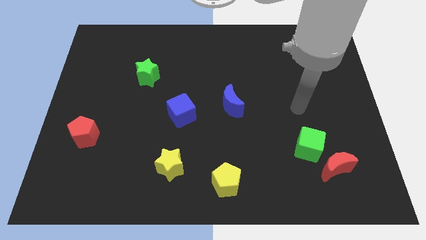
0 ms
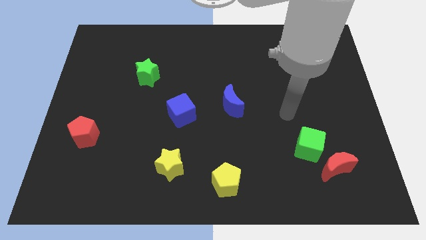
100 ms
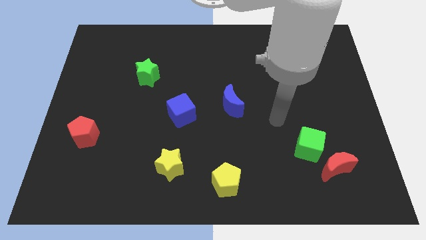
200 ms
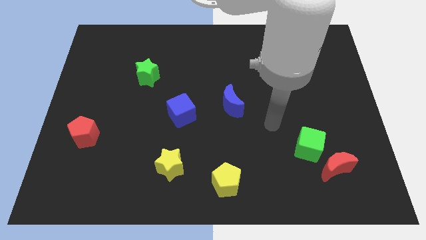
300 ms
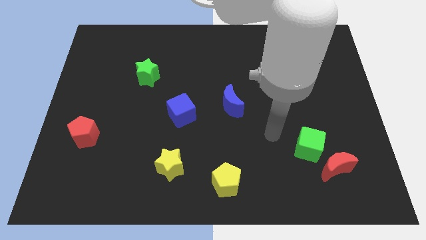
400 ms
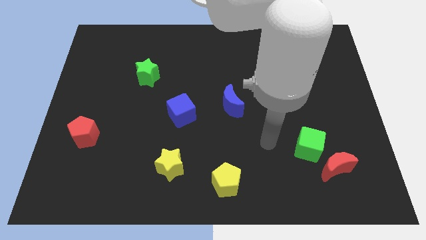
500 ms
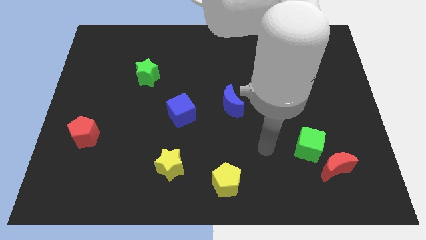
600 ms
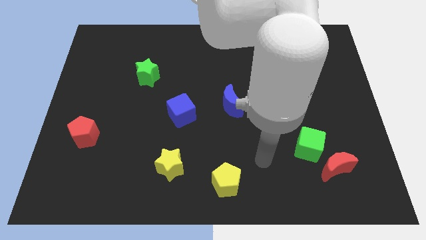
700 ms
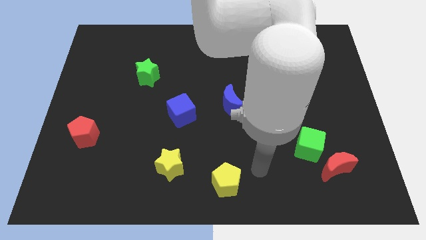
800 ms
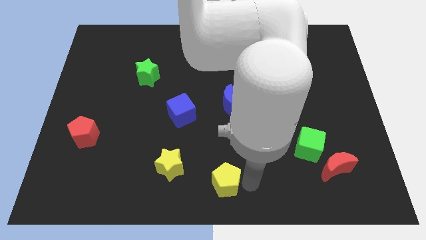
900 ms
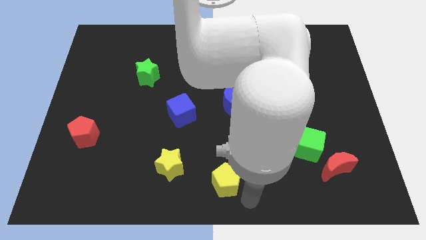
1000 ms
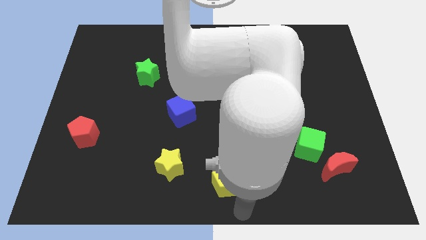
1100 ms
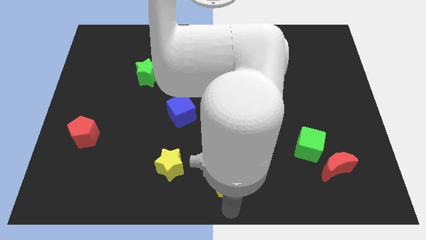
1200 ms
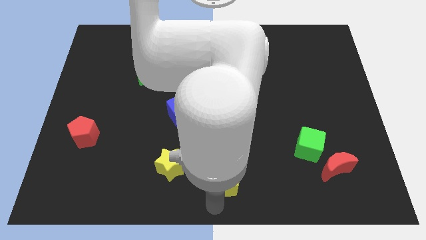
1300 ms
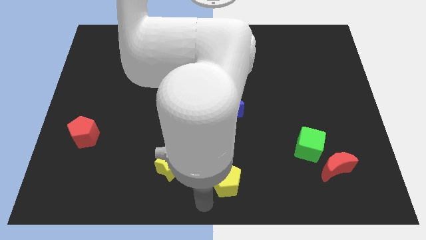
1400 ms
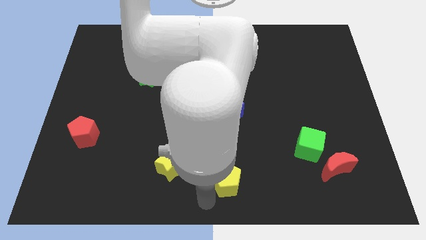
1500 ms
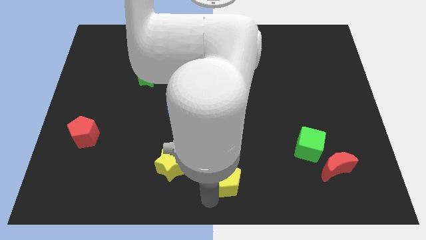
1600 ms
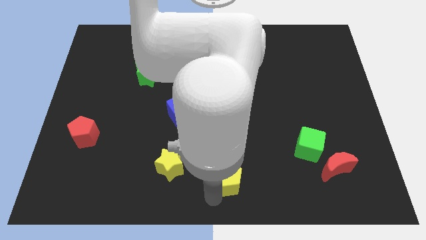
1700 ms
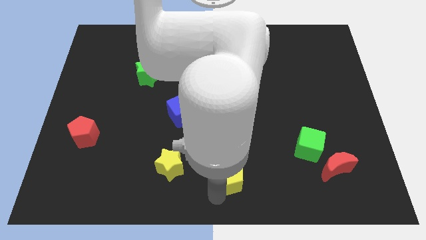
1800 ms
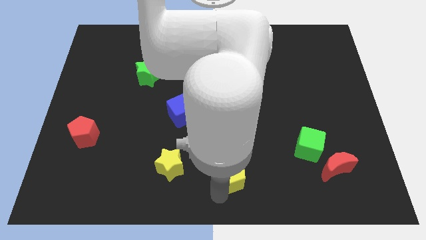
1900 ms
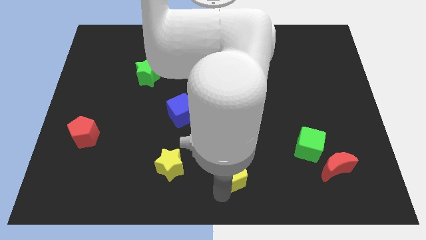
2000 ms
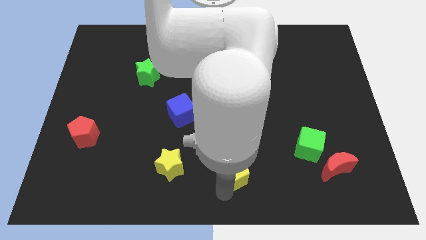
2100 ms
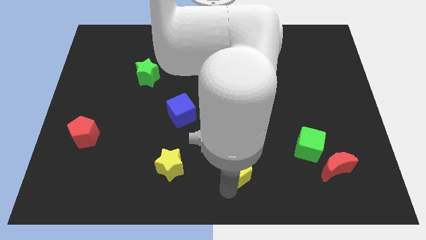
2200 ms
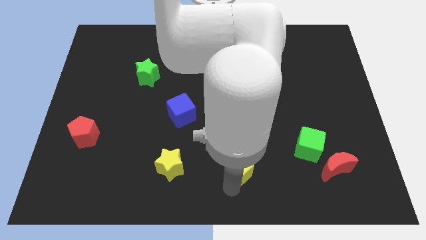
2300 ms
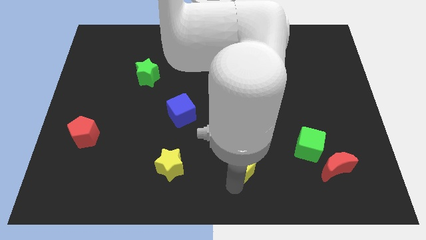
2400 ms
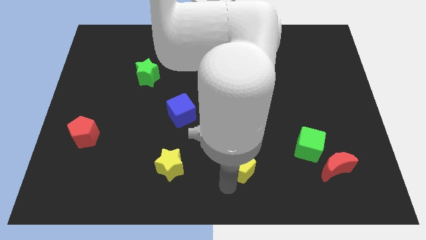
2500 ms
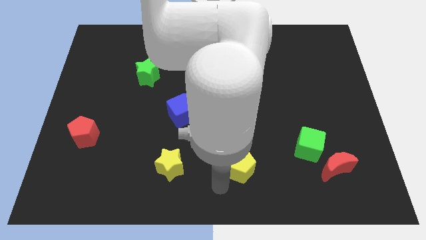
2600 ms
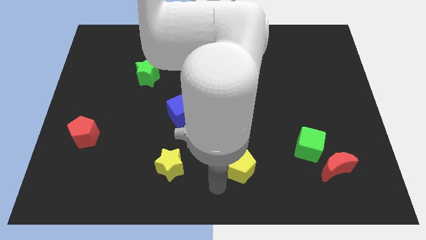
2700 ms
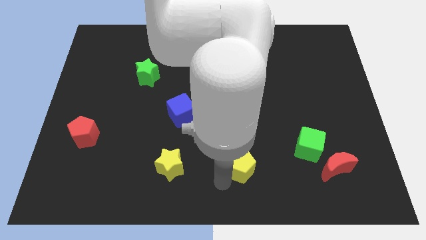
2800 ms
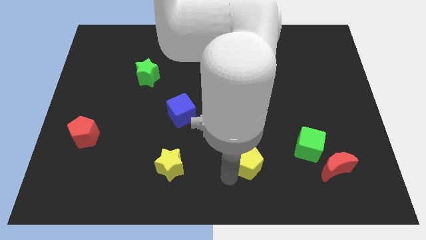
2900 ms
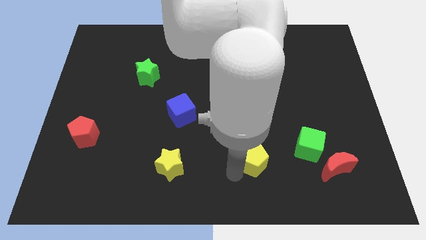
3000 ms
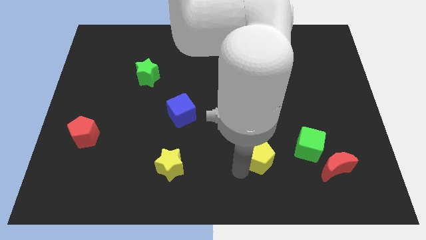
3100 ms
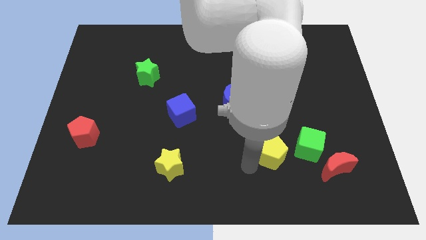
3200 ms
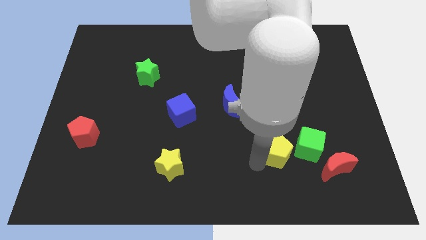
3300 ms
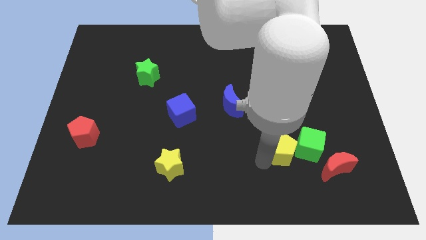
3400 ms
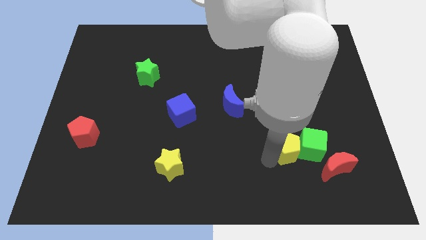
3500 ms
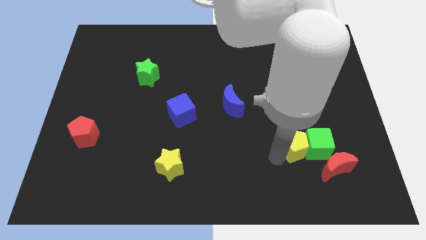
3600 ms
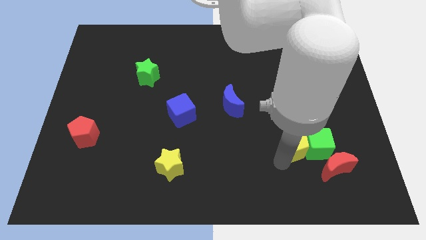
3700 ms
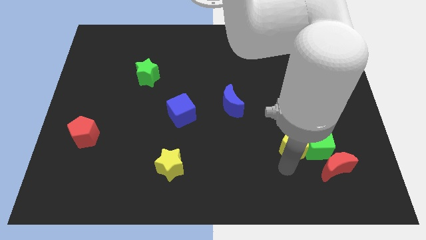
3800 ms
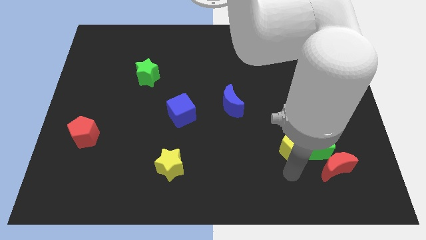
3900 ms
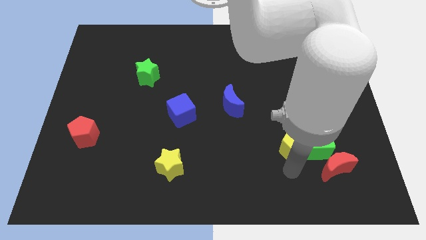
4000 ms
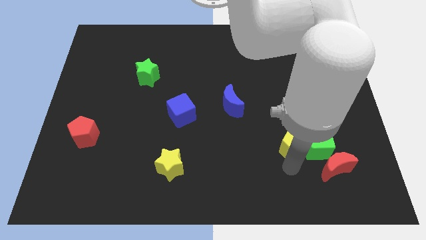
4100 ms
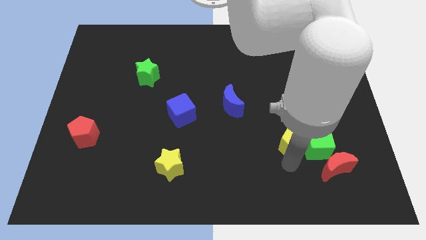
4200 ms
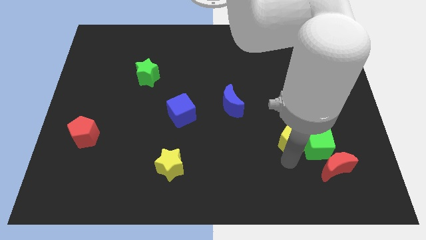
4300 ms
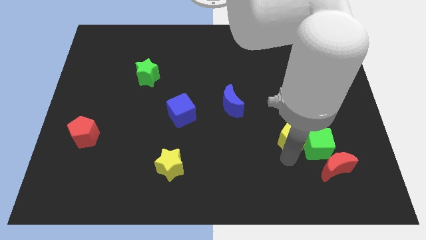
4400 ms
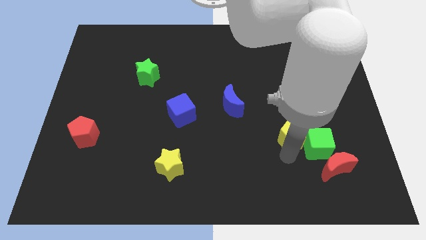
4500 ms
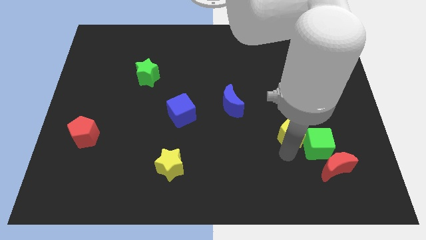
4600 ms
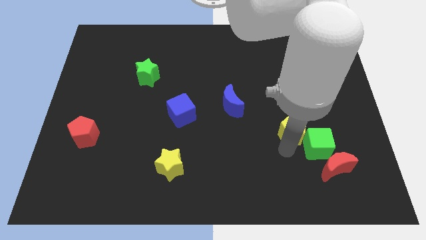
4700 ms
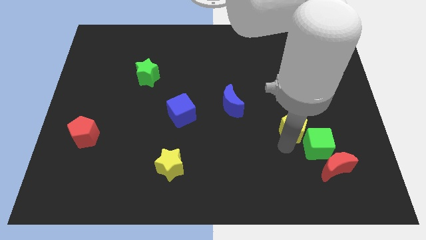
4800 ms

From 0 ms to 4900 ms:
push the yellow pentagon upwards and right diagonally

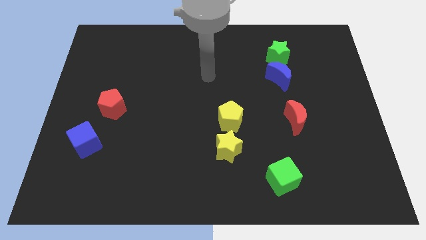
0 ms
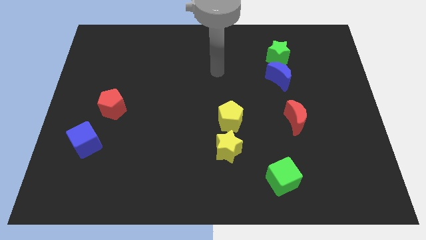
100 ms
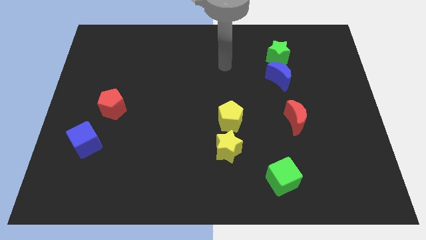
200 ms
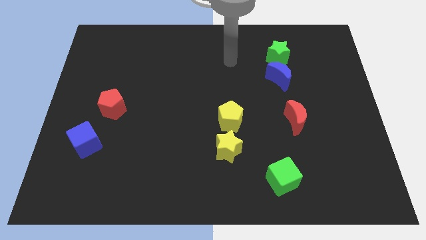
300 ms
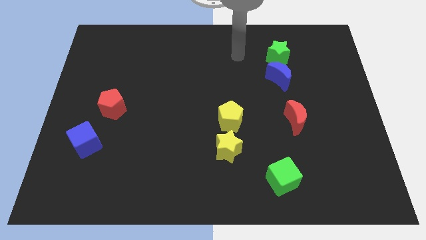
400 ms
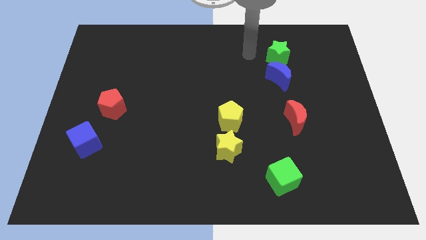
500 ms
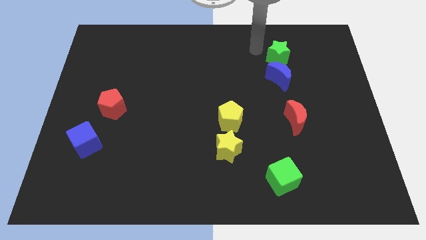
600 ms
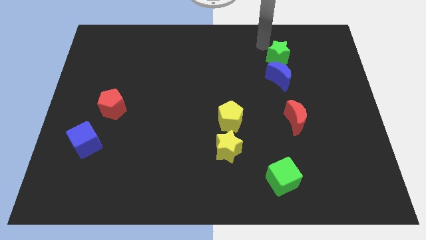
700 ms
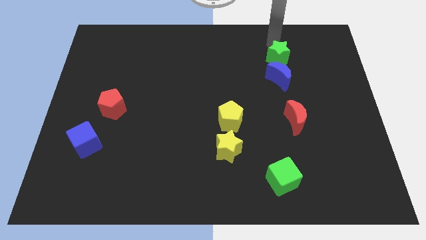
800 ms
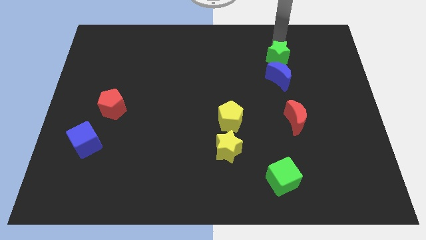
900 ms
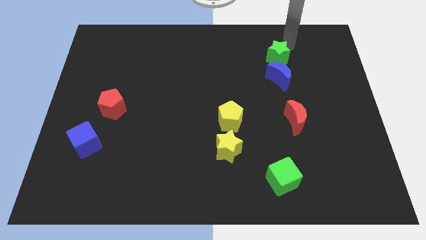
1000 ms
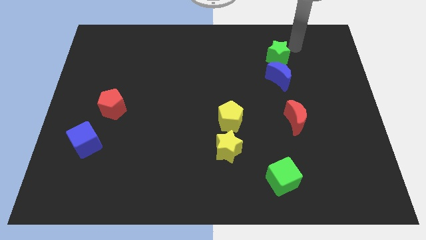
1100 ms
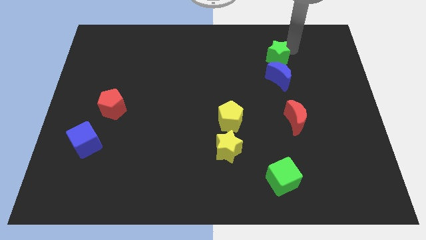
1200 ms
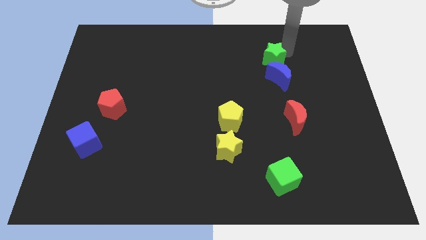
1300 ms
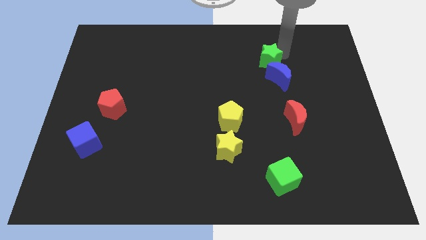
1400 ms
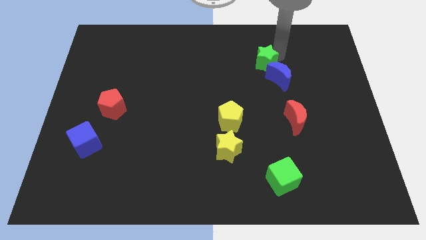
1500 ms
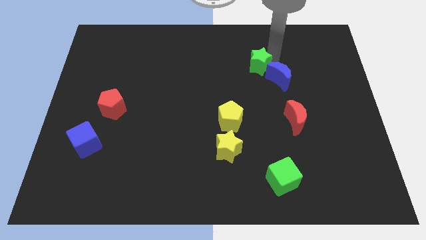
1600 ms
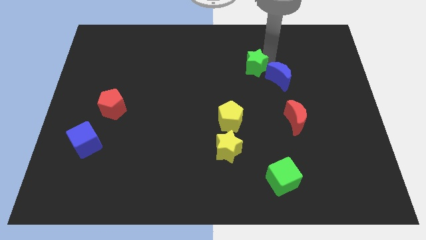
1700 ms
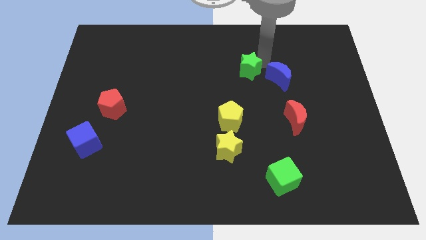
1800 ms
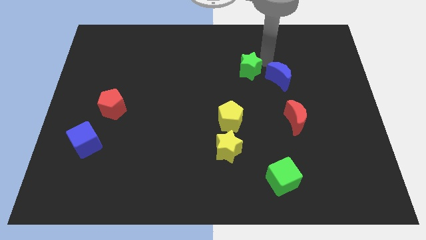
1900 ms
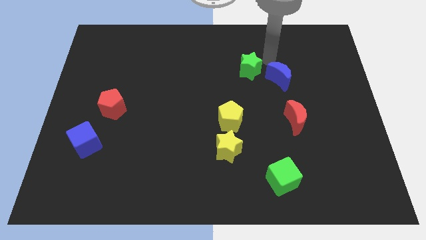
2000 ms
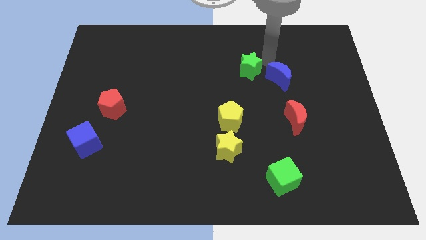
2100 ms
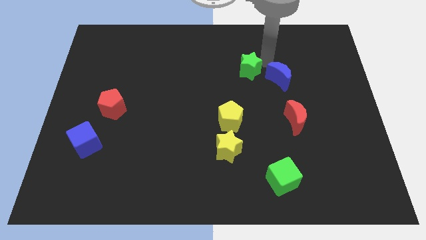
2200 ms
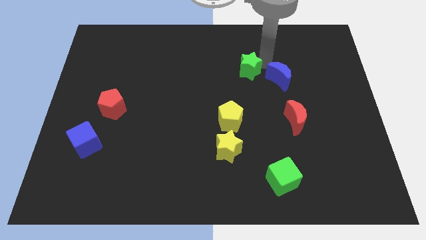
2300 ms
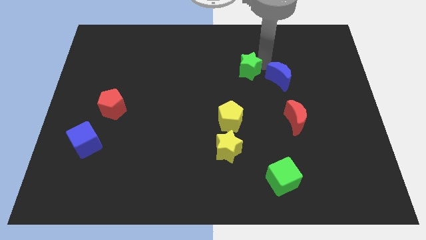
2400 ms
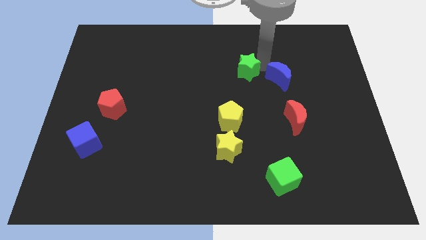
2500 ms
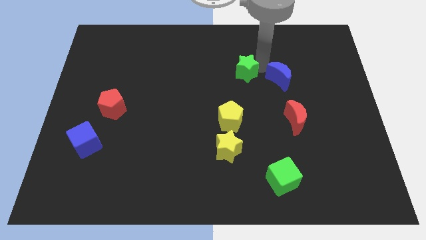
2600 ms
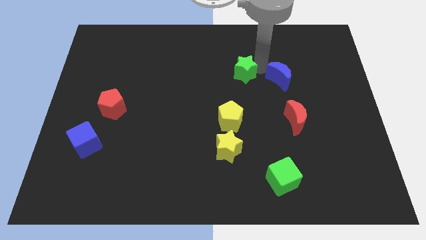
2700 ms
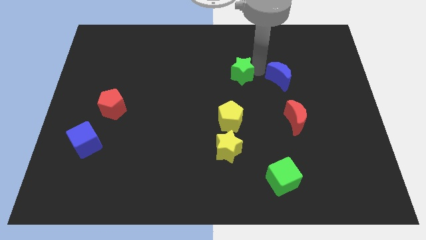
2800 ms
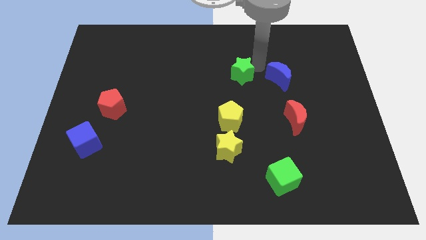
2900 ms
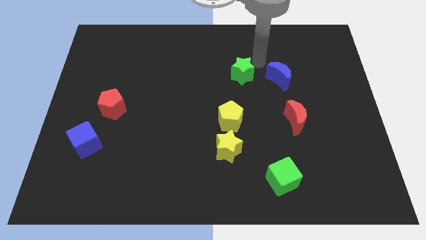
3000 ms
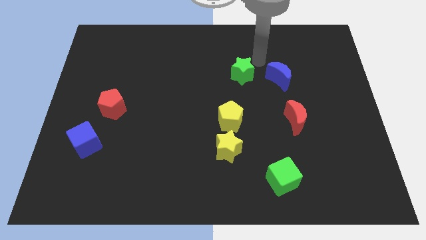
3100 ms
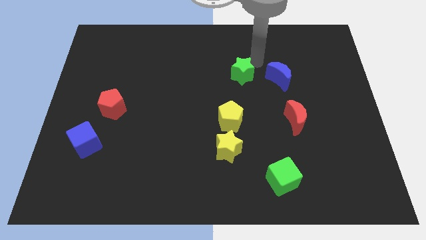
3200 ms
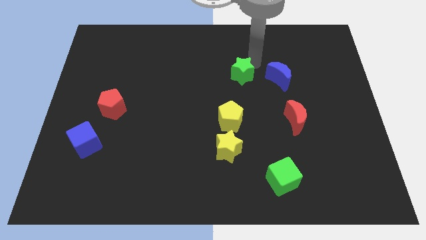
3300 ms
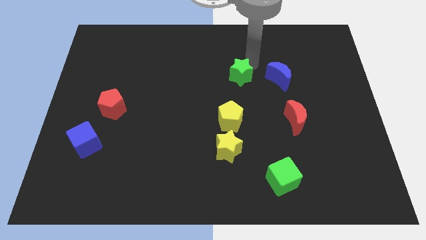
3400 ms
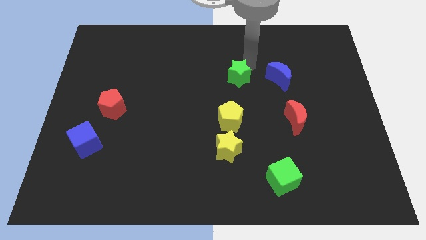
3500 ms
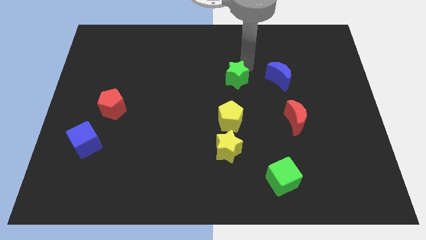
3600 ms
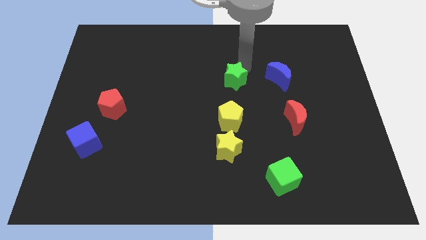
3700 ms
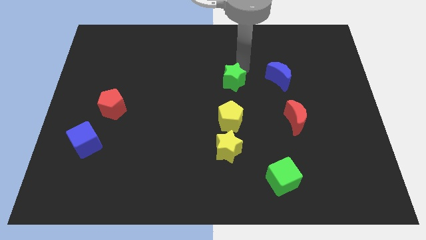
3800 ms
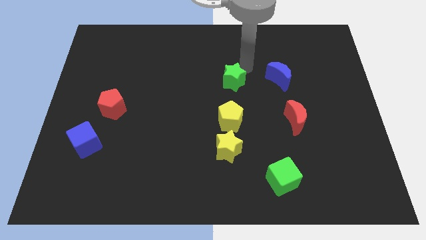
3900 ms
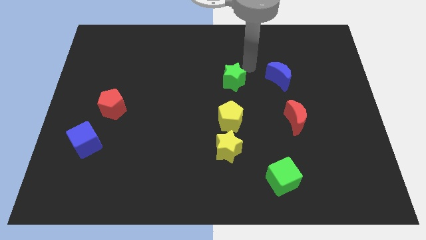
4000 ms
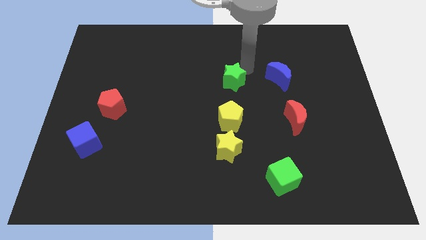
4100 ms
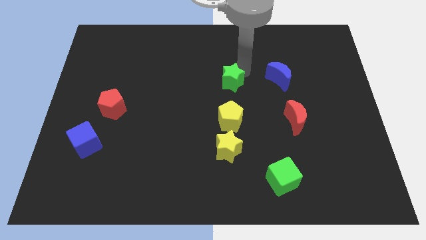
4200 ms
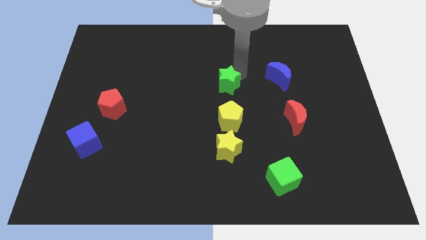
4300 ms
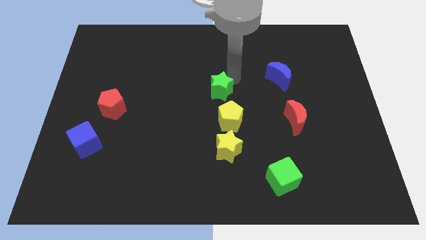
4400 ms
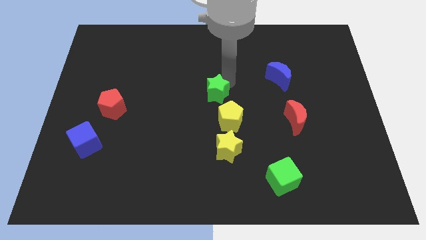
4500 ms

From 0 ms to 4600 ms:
slide the green star diagonally downwards and to the left
